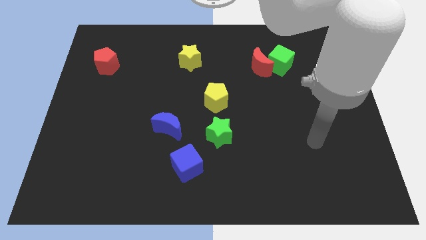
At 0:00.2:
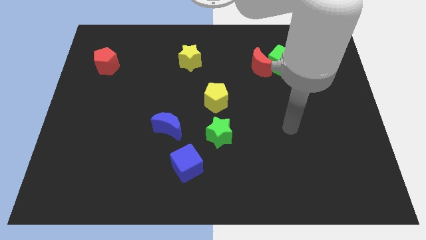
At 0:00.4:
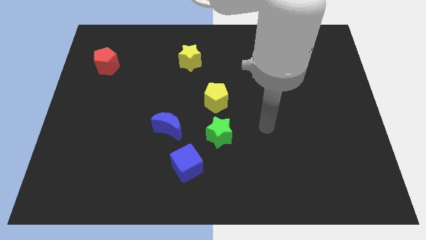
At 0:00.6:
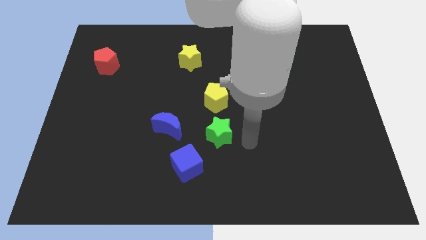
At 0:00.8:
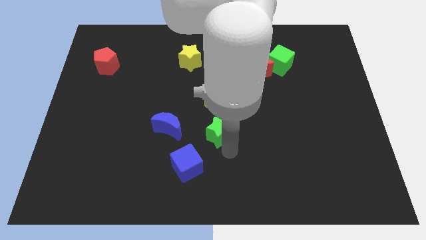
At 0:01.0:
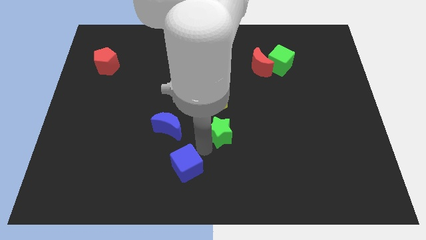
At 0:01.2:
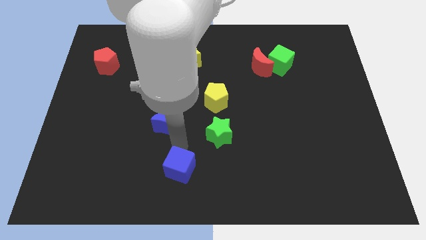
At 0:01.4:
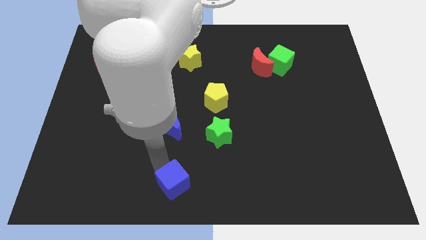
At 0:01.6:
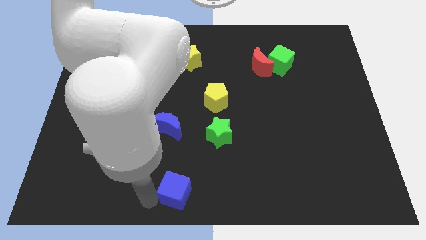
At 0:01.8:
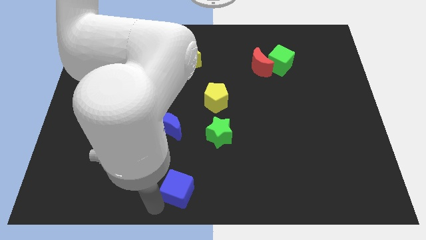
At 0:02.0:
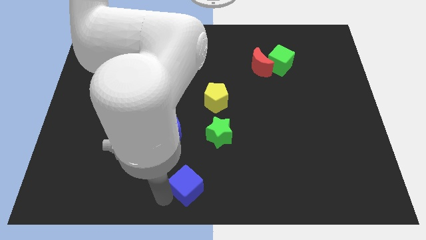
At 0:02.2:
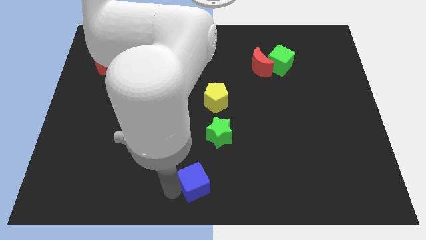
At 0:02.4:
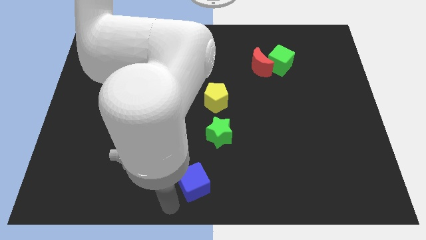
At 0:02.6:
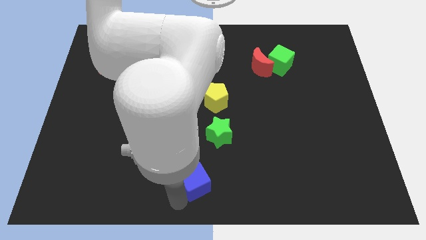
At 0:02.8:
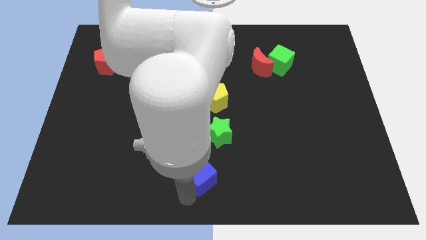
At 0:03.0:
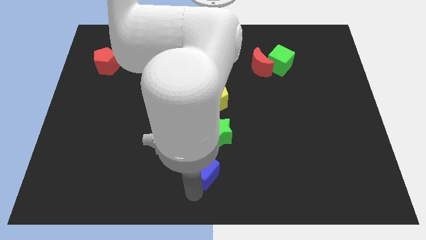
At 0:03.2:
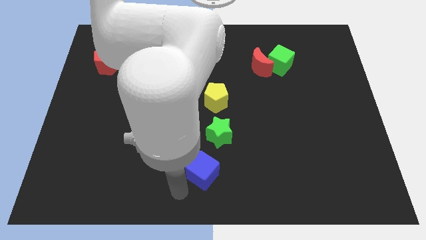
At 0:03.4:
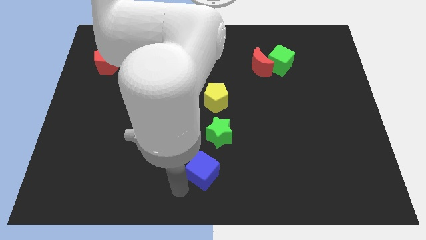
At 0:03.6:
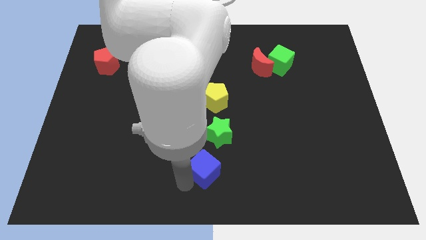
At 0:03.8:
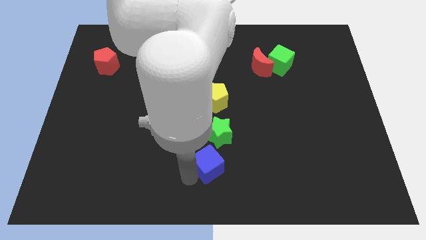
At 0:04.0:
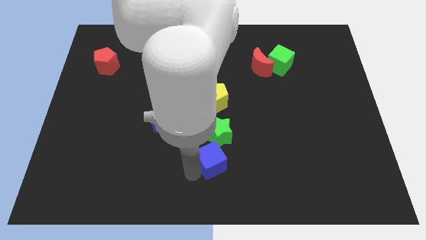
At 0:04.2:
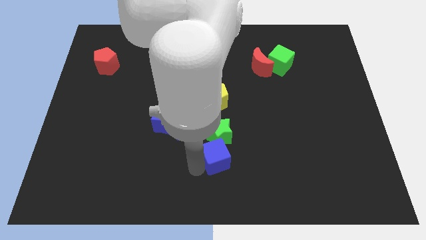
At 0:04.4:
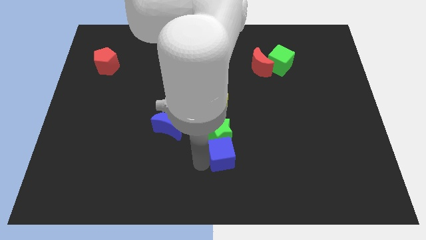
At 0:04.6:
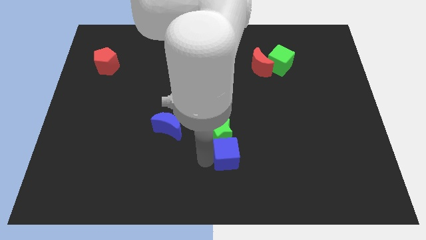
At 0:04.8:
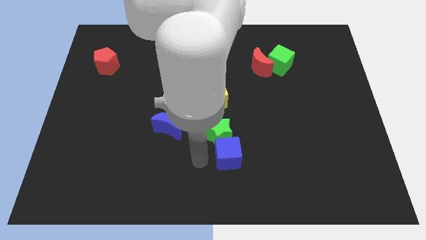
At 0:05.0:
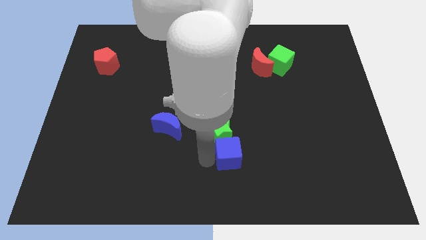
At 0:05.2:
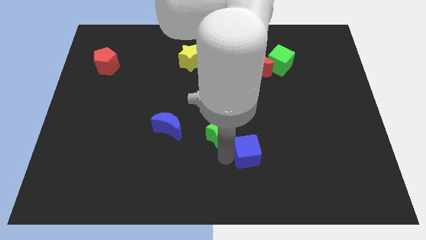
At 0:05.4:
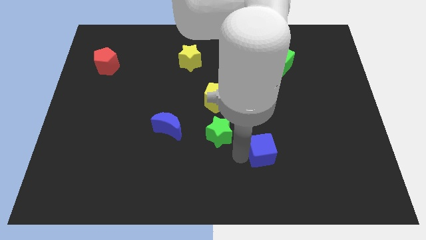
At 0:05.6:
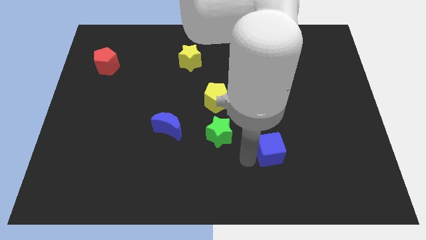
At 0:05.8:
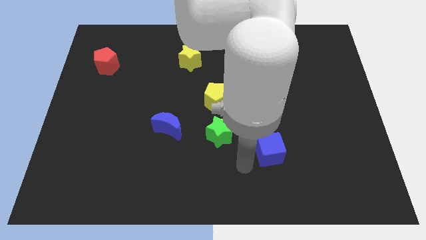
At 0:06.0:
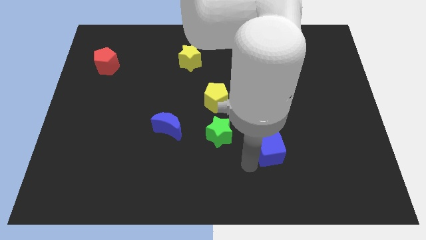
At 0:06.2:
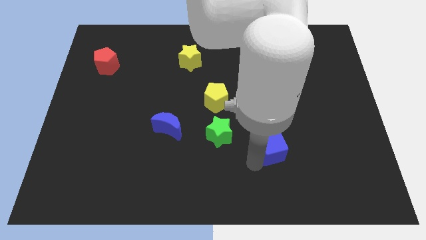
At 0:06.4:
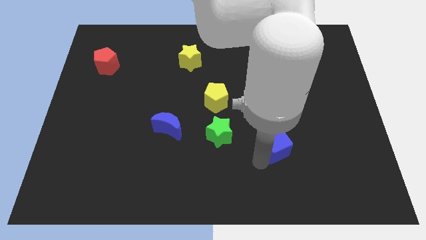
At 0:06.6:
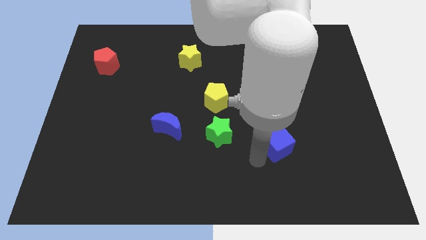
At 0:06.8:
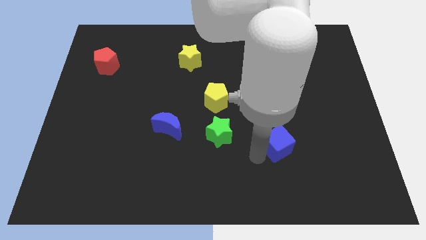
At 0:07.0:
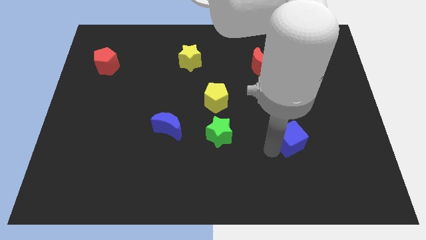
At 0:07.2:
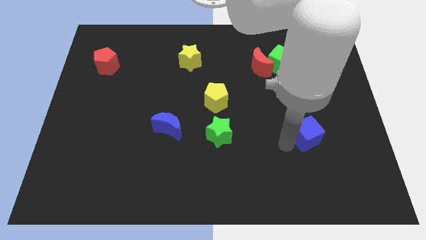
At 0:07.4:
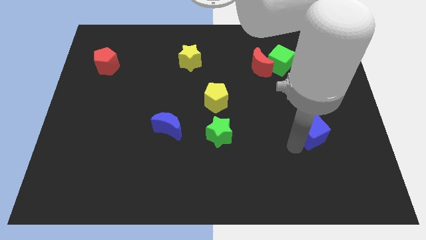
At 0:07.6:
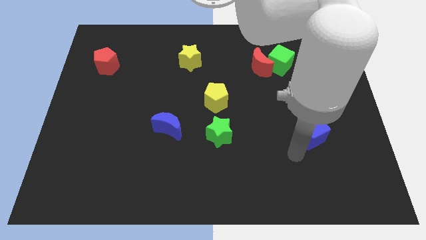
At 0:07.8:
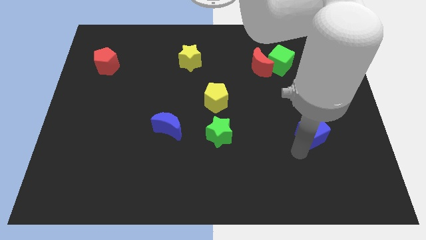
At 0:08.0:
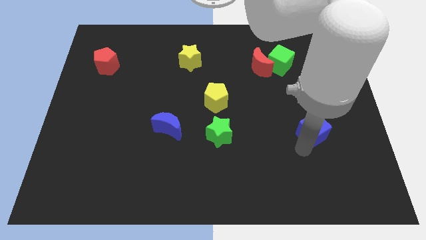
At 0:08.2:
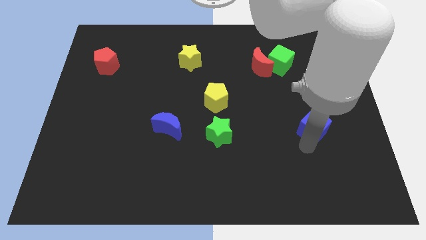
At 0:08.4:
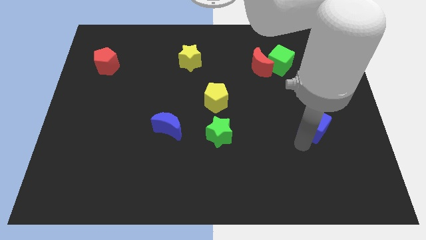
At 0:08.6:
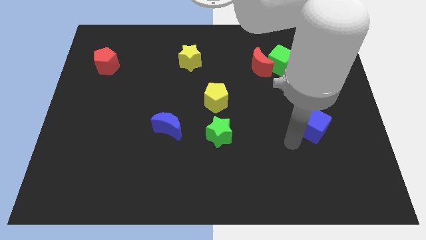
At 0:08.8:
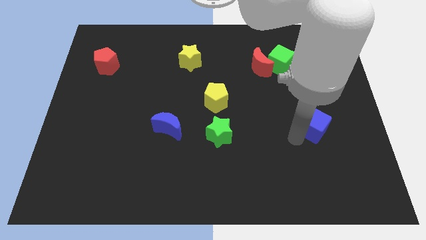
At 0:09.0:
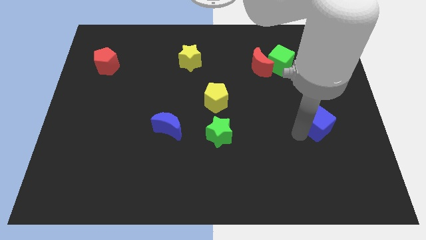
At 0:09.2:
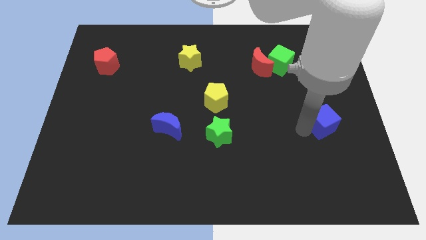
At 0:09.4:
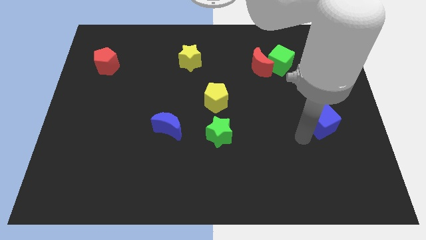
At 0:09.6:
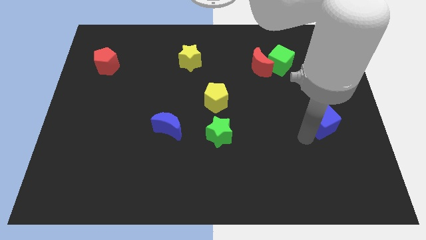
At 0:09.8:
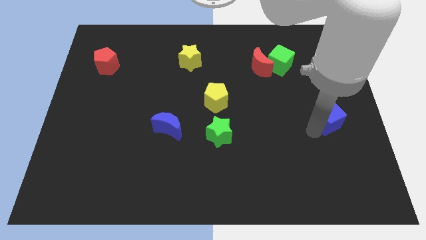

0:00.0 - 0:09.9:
slide the blue cube to the center right

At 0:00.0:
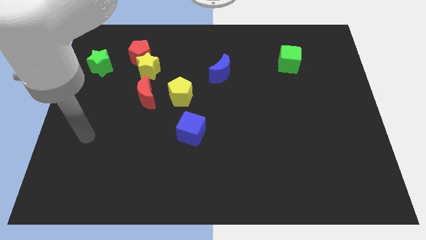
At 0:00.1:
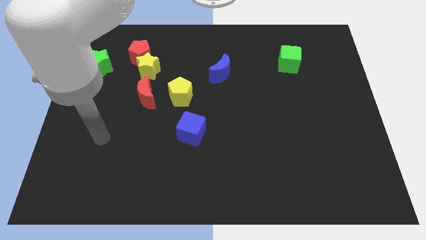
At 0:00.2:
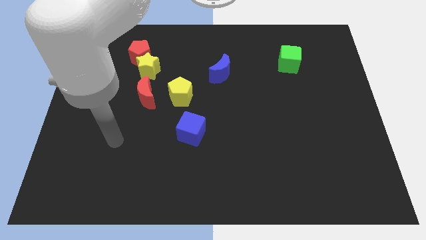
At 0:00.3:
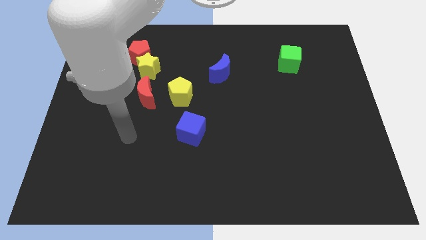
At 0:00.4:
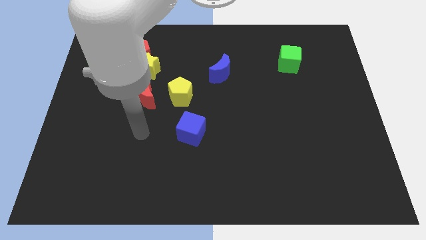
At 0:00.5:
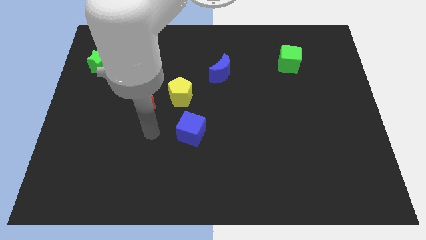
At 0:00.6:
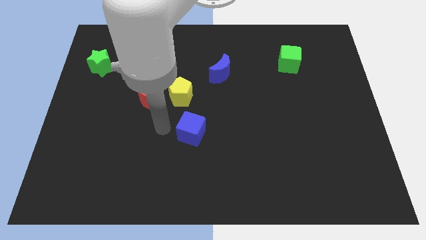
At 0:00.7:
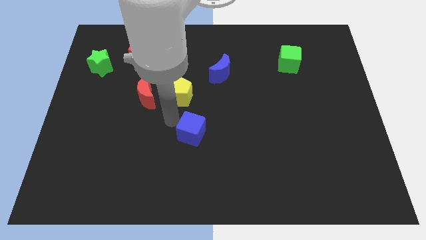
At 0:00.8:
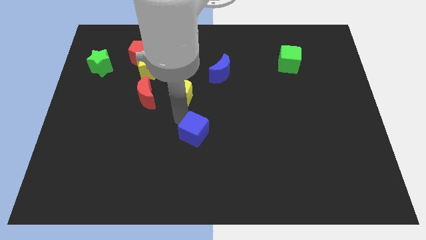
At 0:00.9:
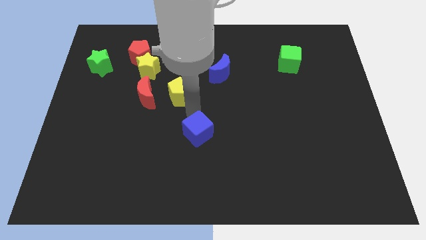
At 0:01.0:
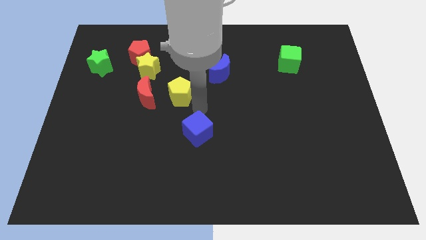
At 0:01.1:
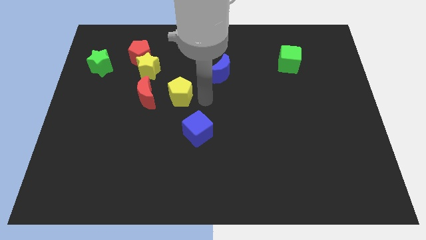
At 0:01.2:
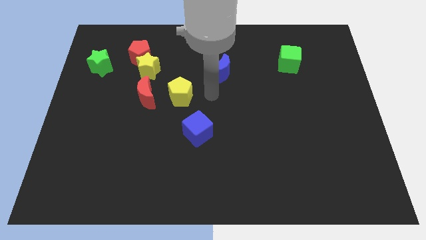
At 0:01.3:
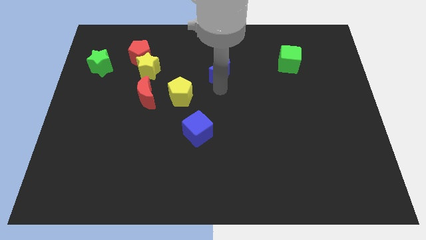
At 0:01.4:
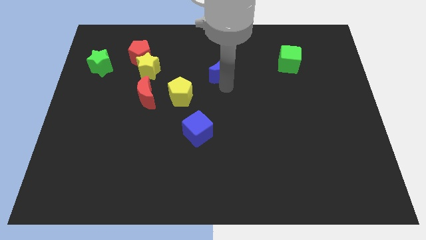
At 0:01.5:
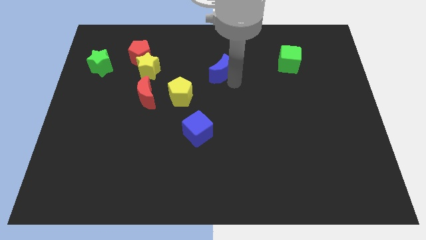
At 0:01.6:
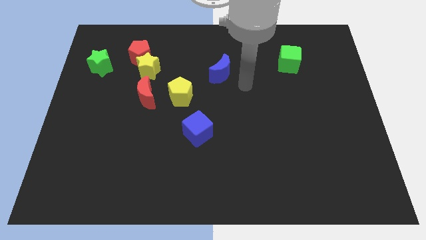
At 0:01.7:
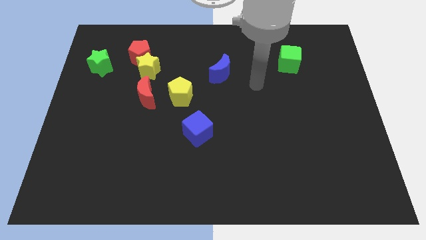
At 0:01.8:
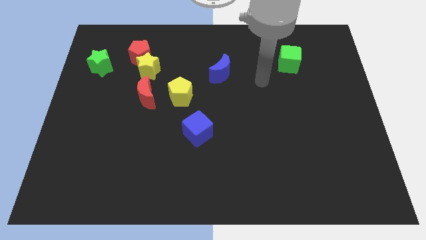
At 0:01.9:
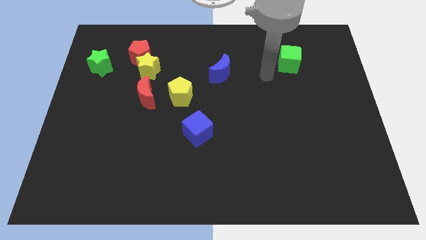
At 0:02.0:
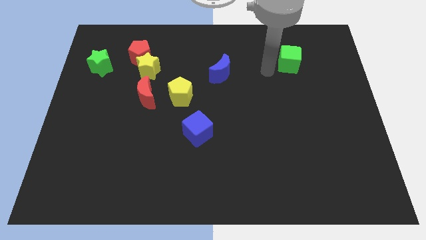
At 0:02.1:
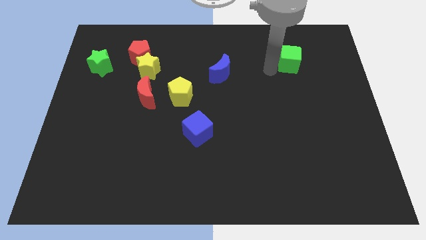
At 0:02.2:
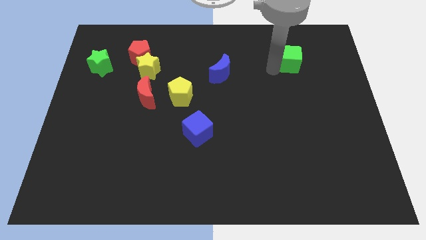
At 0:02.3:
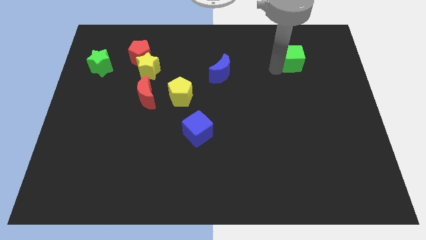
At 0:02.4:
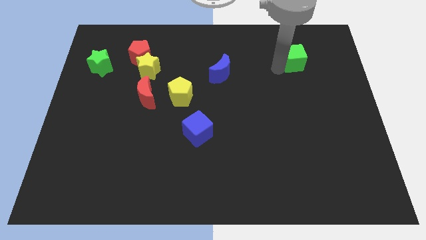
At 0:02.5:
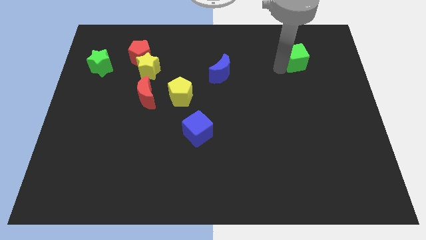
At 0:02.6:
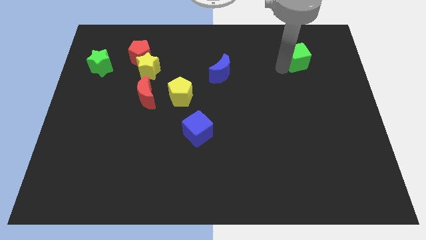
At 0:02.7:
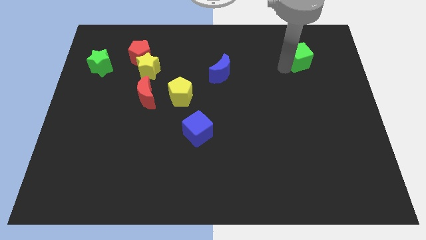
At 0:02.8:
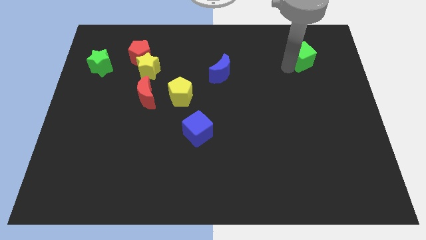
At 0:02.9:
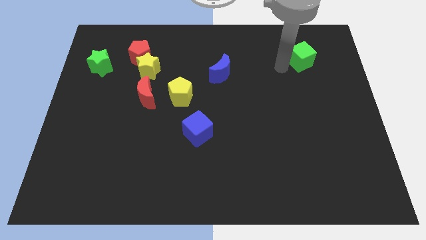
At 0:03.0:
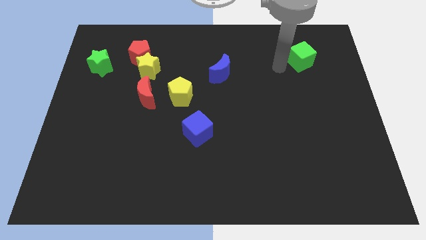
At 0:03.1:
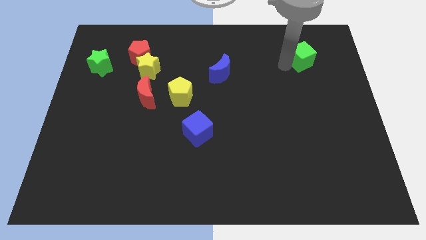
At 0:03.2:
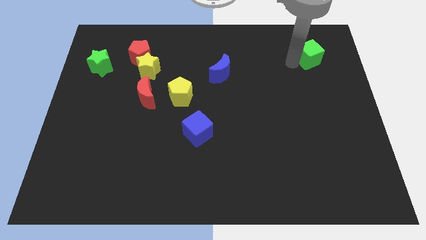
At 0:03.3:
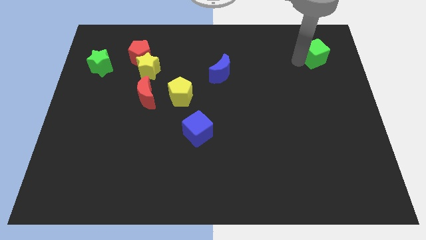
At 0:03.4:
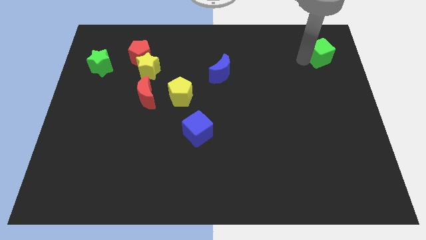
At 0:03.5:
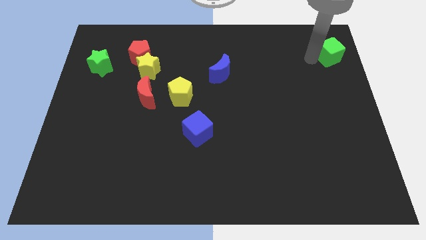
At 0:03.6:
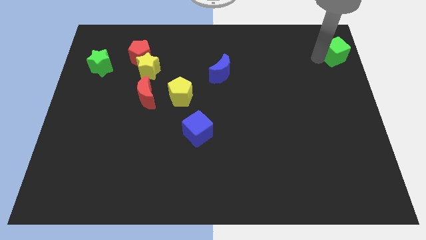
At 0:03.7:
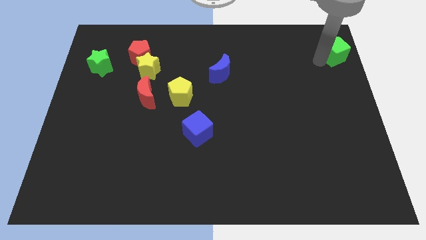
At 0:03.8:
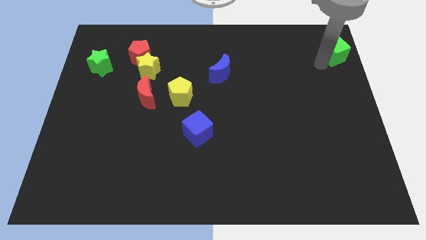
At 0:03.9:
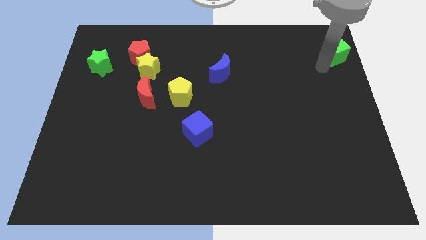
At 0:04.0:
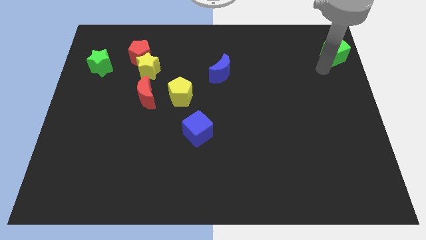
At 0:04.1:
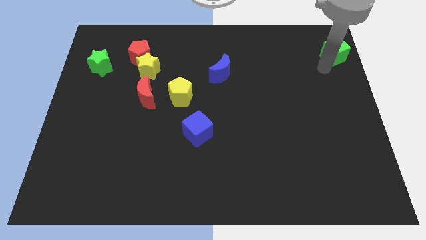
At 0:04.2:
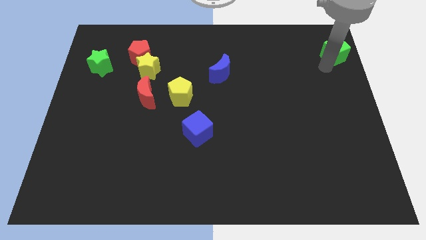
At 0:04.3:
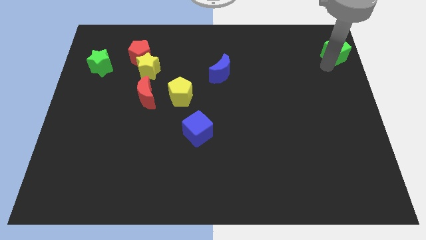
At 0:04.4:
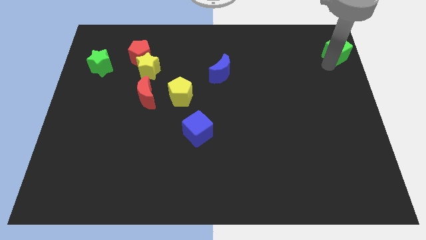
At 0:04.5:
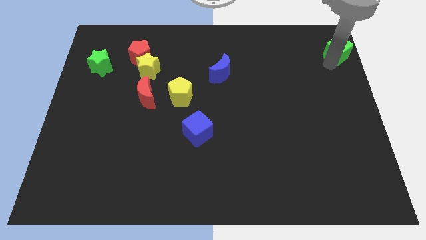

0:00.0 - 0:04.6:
put the green cube to the top right of the board
